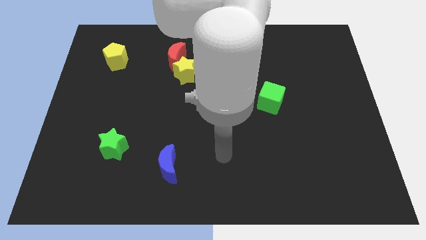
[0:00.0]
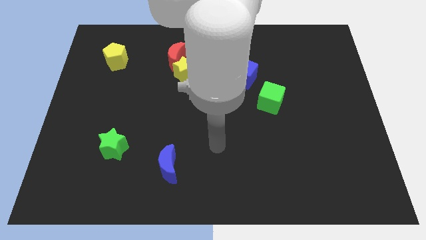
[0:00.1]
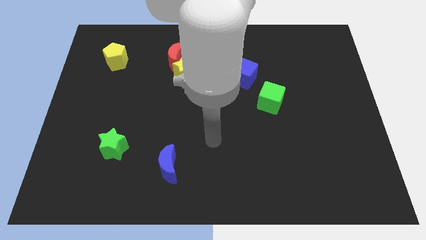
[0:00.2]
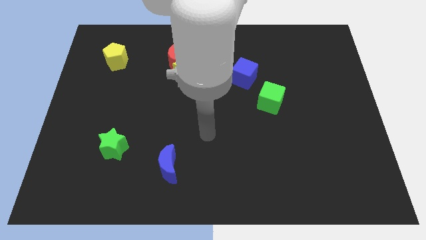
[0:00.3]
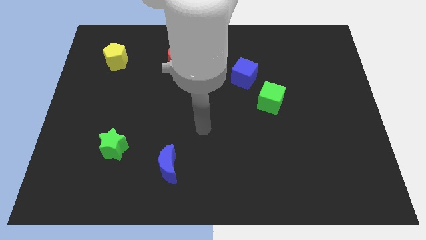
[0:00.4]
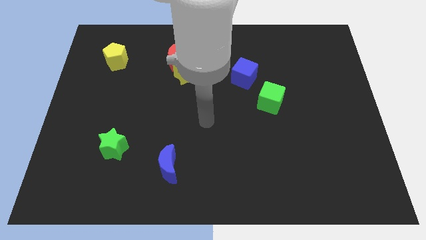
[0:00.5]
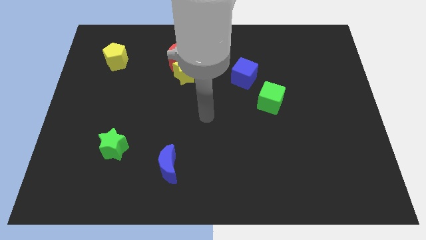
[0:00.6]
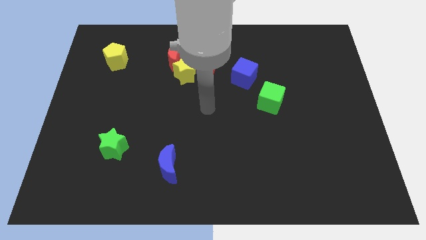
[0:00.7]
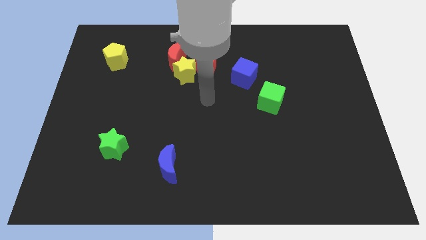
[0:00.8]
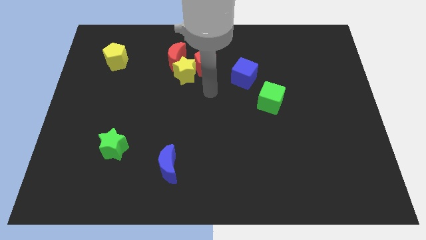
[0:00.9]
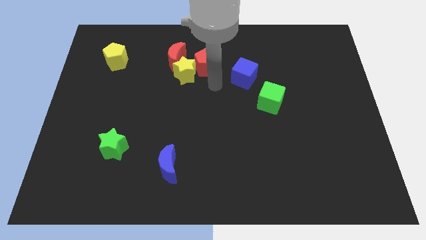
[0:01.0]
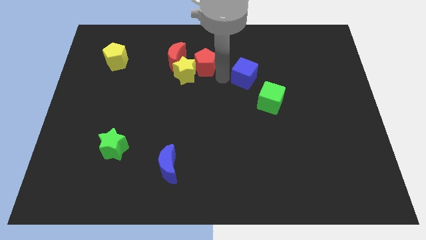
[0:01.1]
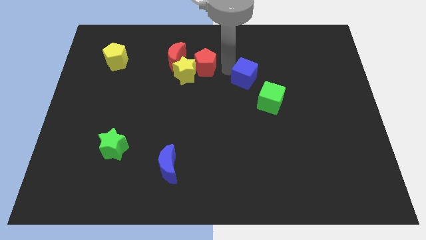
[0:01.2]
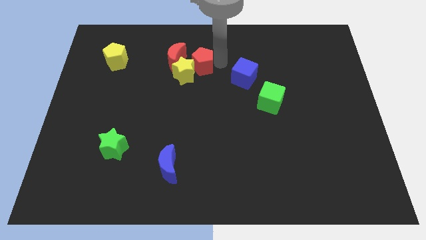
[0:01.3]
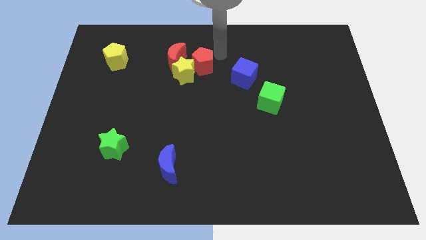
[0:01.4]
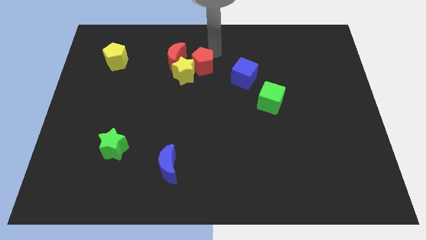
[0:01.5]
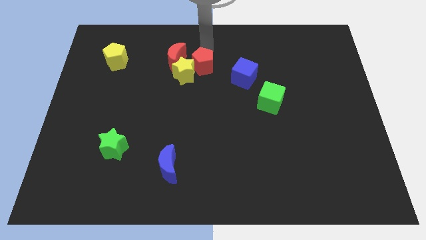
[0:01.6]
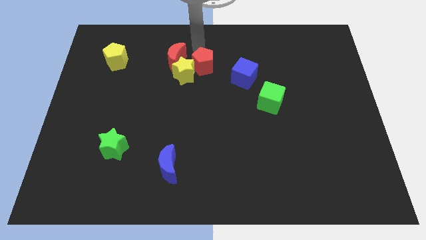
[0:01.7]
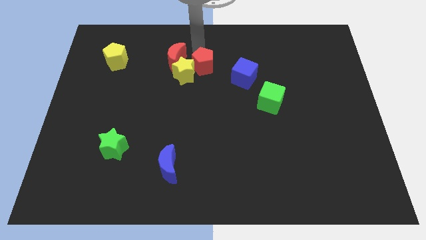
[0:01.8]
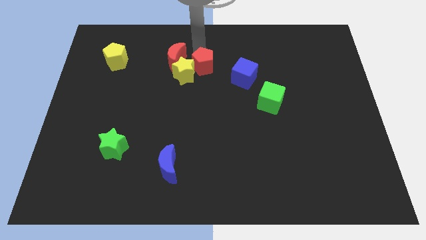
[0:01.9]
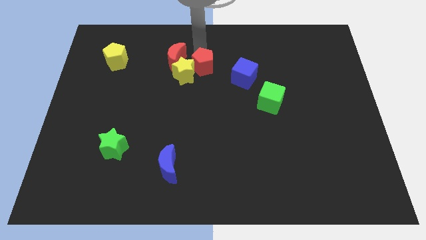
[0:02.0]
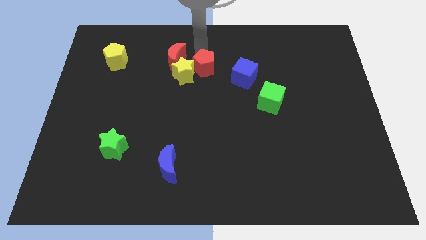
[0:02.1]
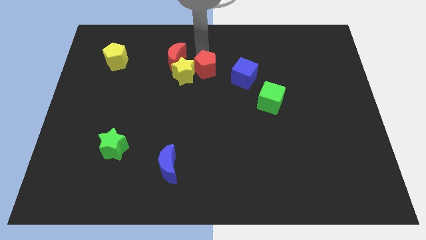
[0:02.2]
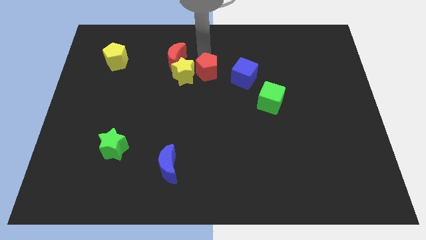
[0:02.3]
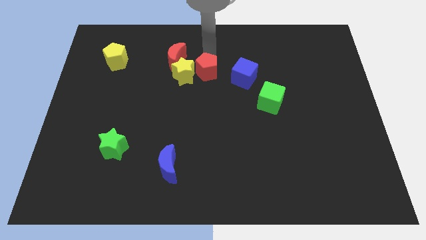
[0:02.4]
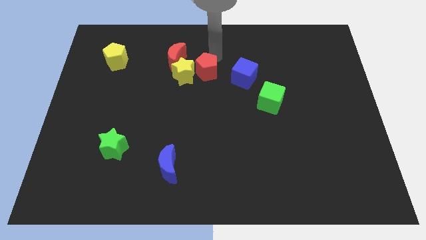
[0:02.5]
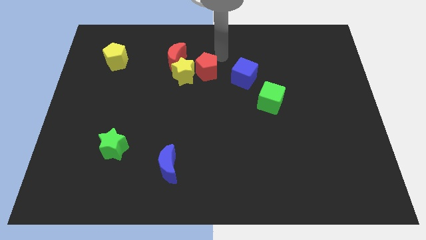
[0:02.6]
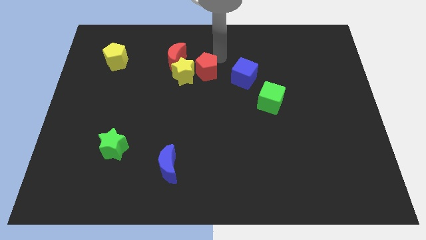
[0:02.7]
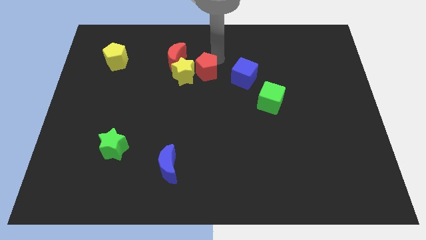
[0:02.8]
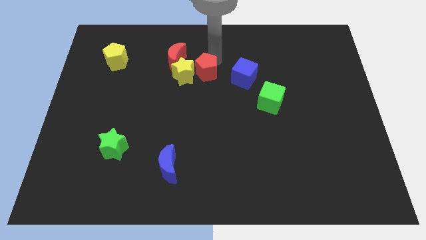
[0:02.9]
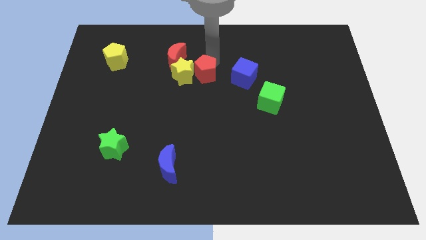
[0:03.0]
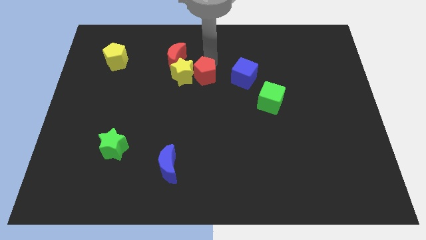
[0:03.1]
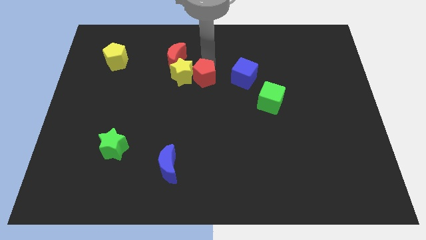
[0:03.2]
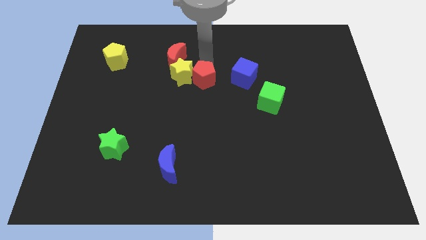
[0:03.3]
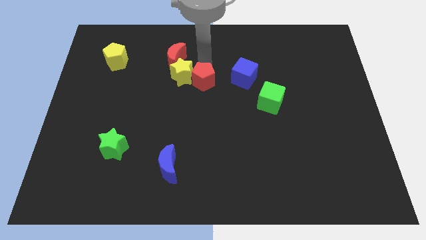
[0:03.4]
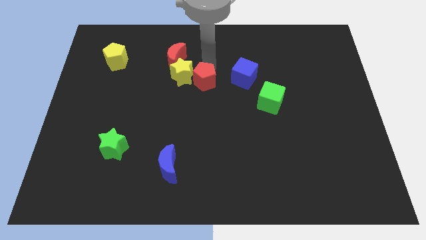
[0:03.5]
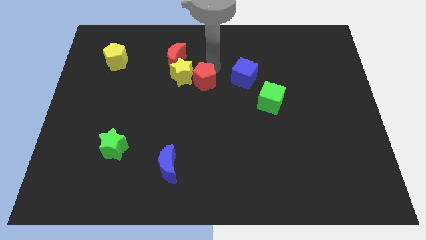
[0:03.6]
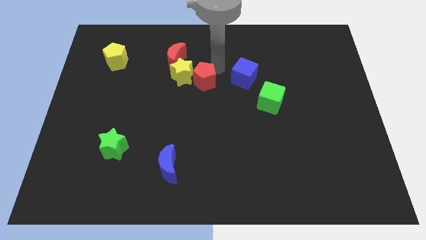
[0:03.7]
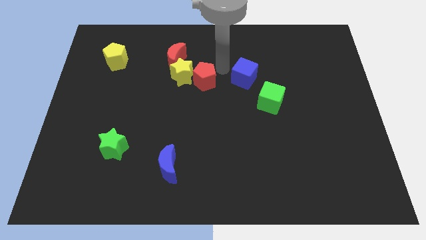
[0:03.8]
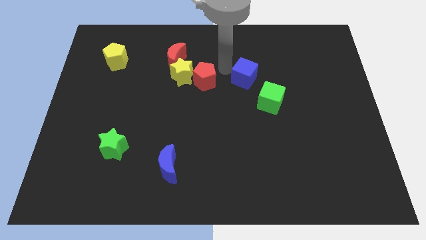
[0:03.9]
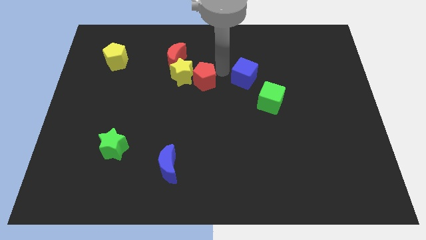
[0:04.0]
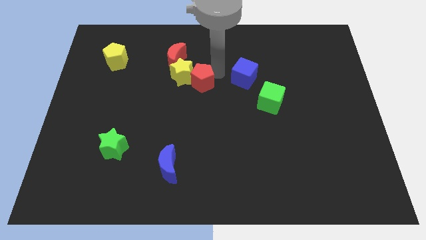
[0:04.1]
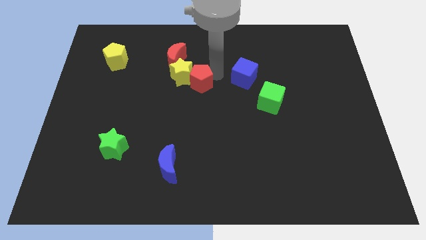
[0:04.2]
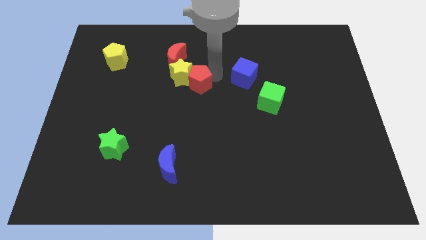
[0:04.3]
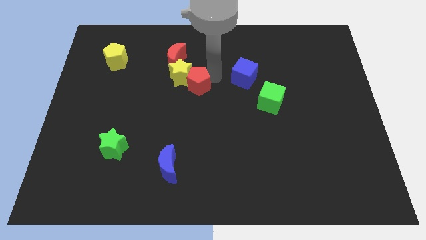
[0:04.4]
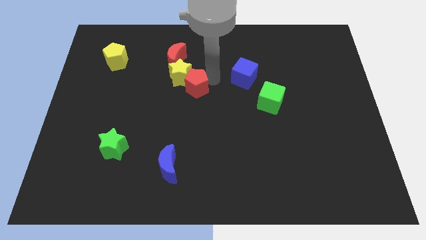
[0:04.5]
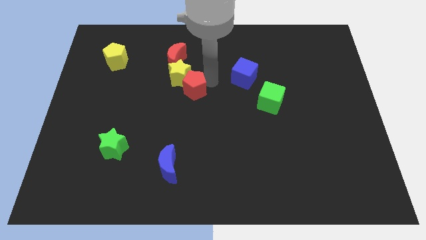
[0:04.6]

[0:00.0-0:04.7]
slightly move the red pentagon diagonally downwards and to the left

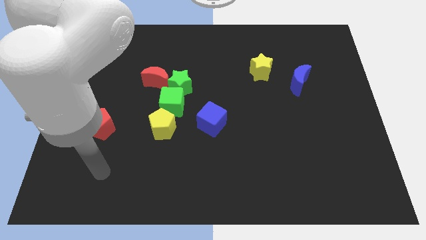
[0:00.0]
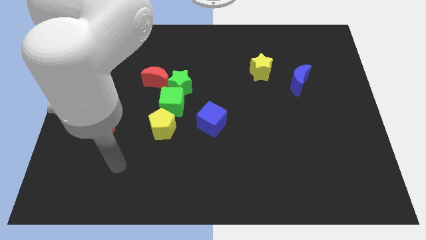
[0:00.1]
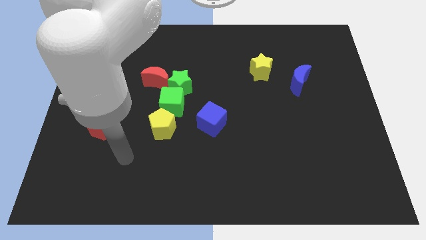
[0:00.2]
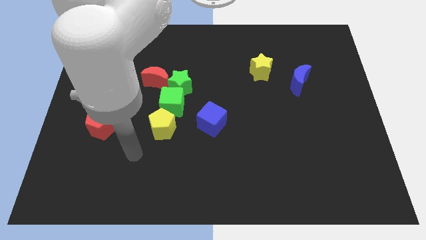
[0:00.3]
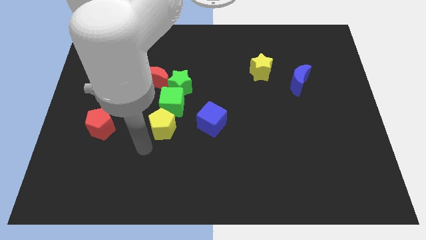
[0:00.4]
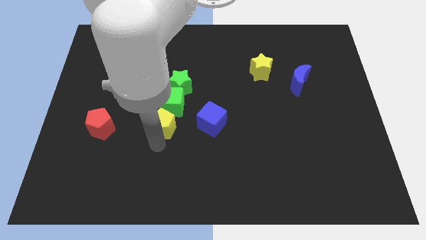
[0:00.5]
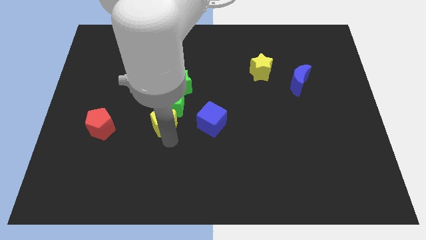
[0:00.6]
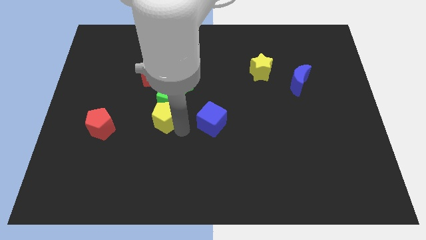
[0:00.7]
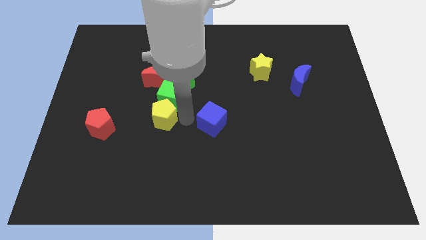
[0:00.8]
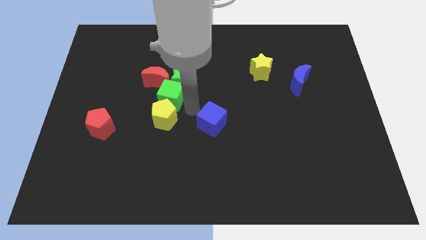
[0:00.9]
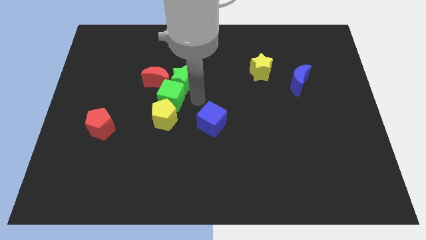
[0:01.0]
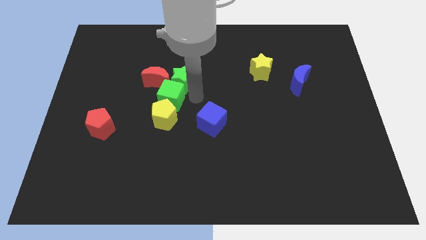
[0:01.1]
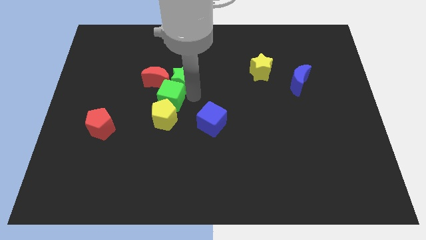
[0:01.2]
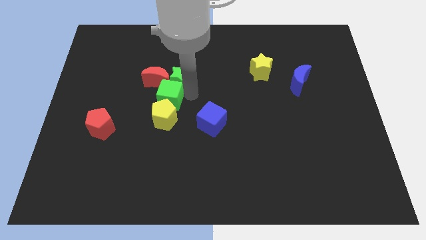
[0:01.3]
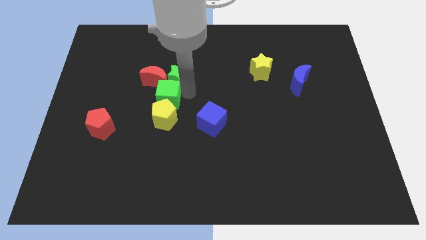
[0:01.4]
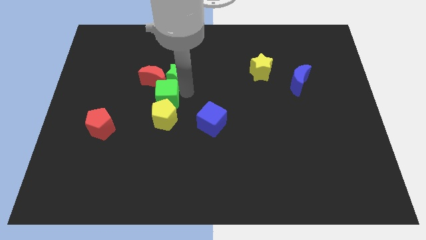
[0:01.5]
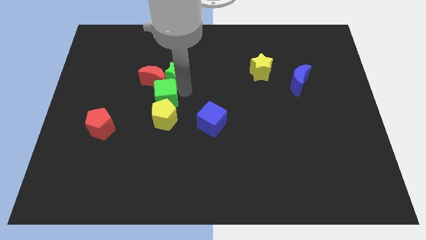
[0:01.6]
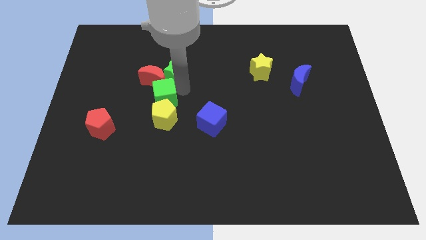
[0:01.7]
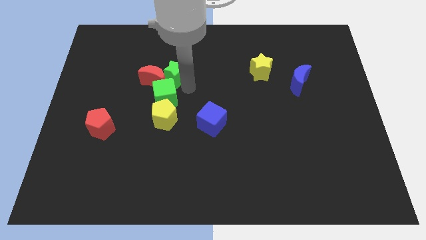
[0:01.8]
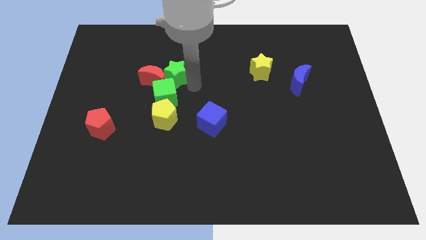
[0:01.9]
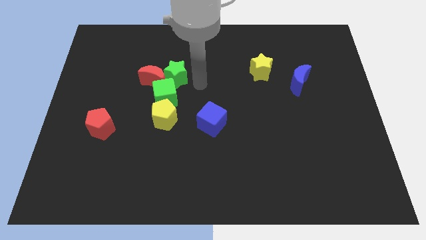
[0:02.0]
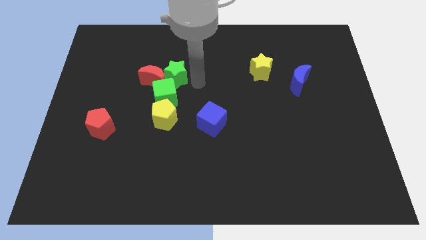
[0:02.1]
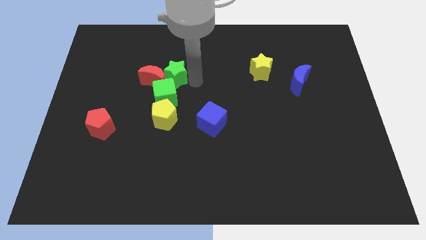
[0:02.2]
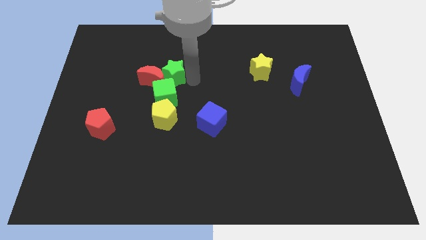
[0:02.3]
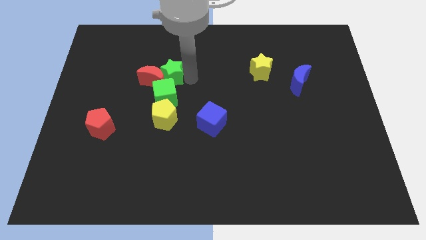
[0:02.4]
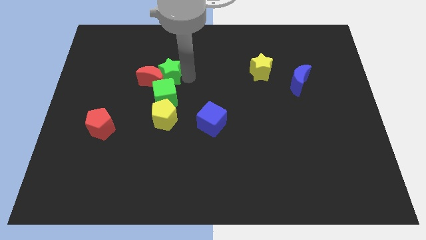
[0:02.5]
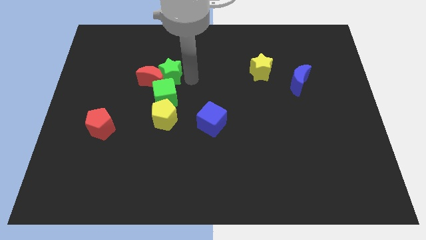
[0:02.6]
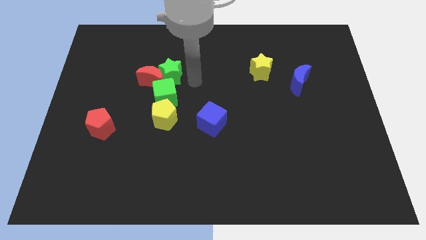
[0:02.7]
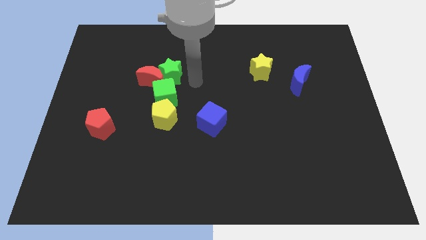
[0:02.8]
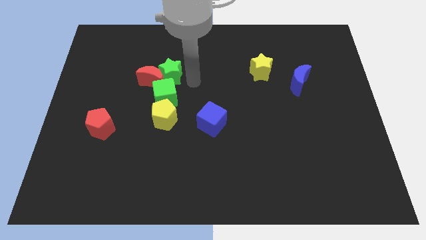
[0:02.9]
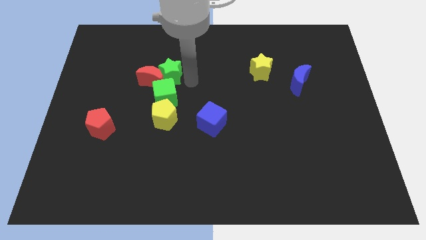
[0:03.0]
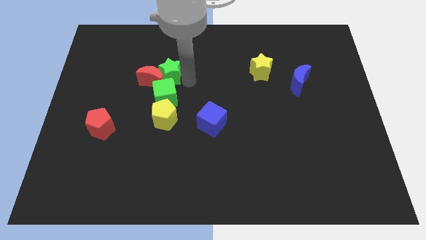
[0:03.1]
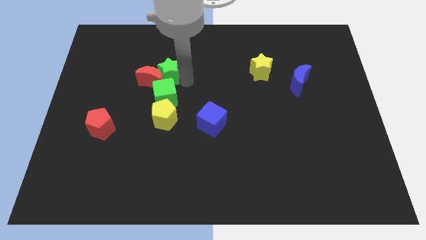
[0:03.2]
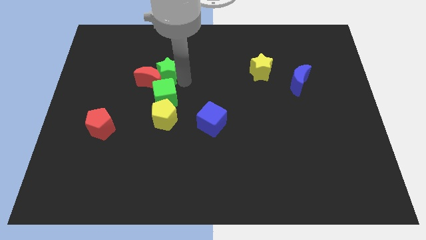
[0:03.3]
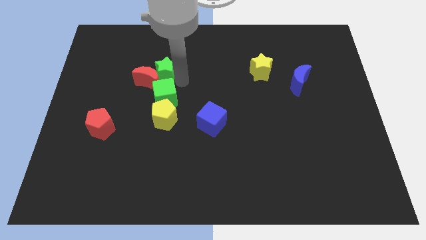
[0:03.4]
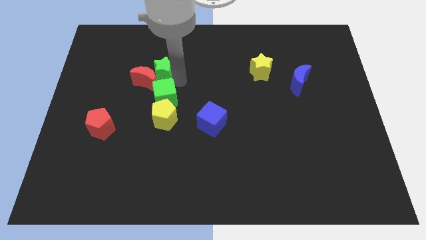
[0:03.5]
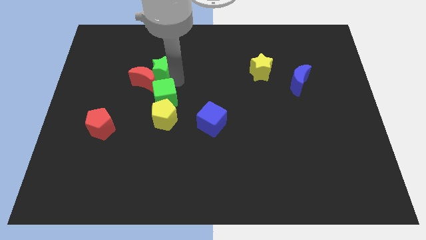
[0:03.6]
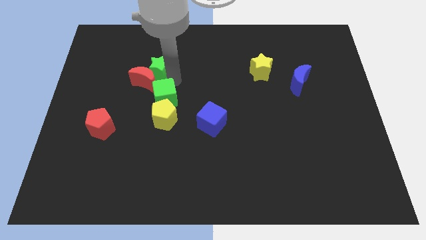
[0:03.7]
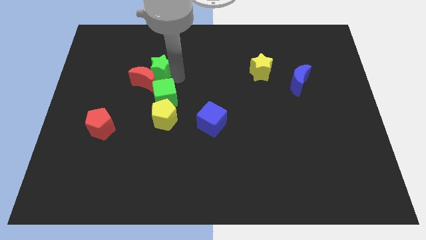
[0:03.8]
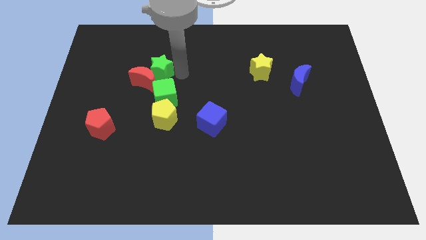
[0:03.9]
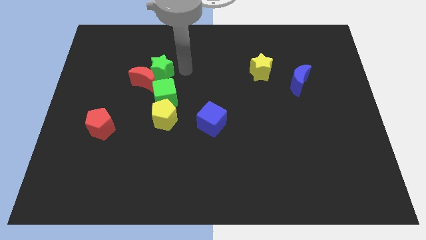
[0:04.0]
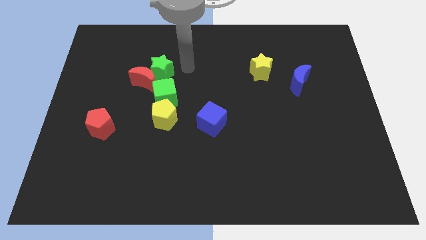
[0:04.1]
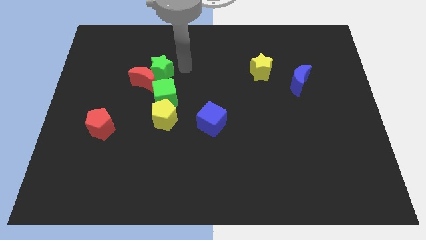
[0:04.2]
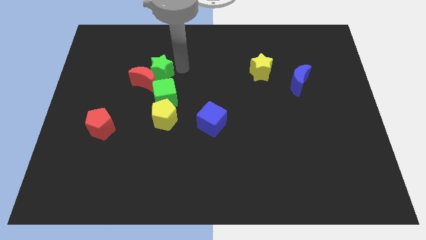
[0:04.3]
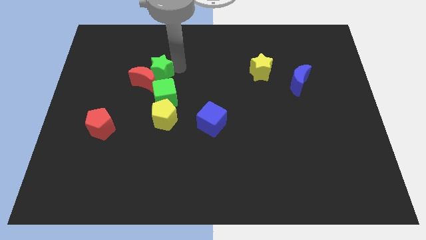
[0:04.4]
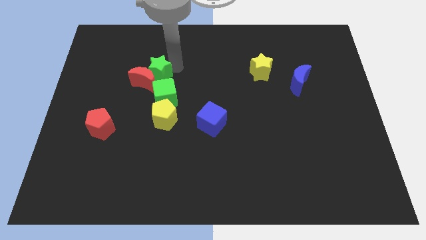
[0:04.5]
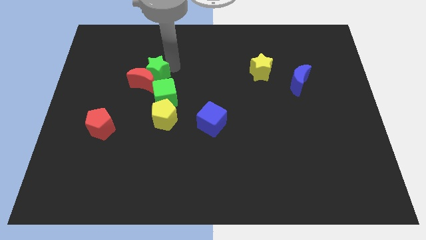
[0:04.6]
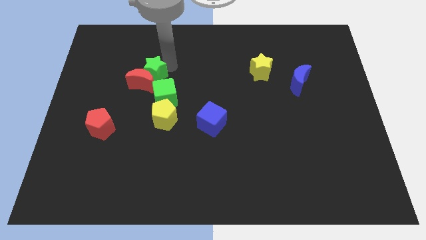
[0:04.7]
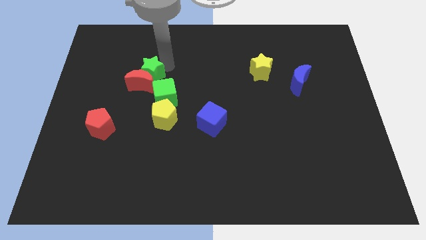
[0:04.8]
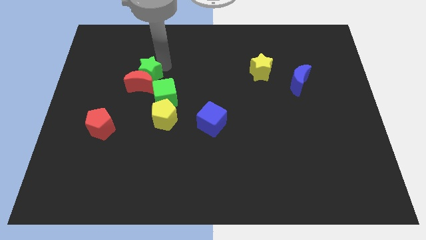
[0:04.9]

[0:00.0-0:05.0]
slide the green star to the left somewhat
